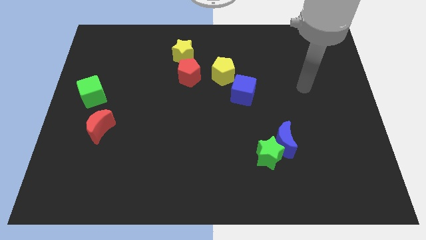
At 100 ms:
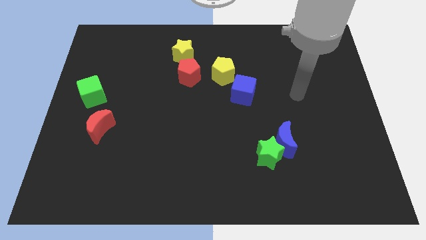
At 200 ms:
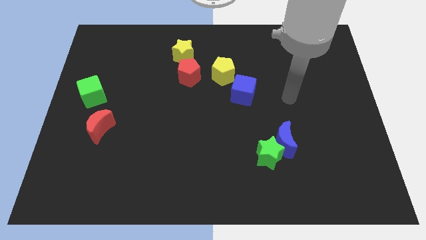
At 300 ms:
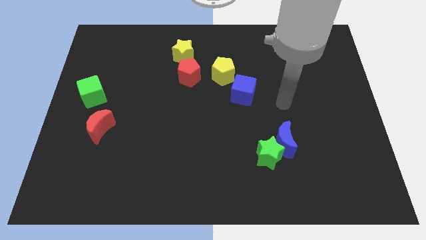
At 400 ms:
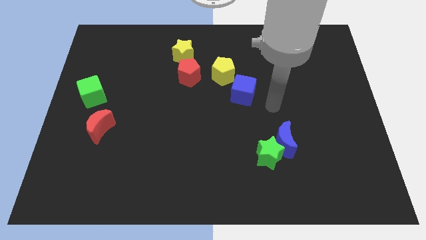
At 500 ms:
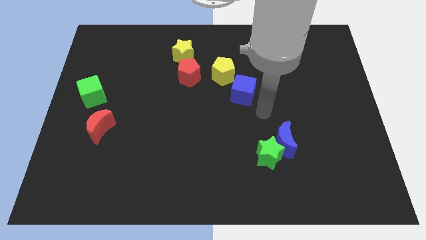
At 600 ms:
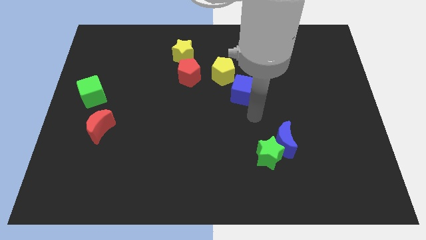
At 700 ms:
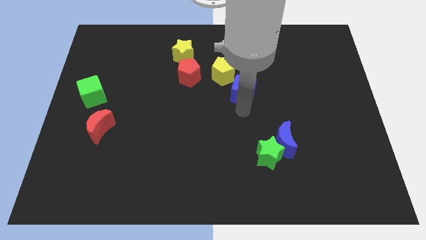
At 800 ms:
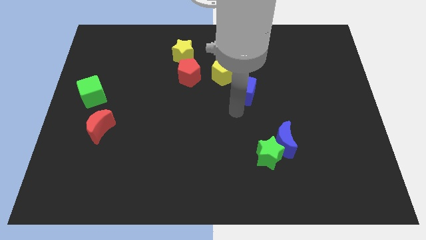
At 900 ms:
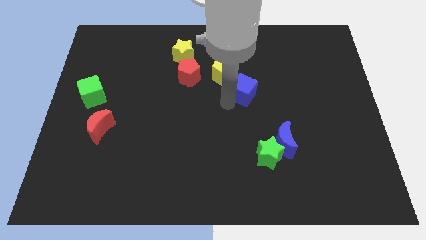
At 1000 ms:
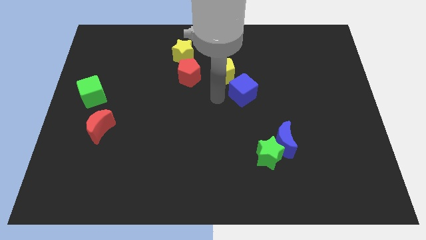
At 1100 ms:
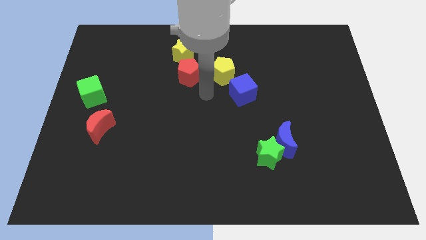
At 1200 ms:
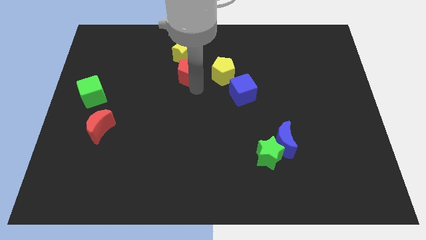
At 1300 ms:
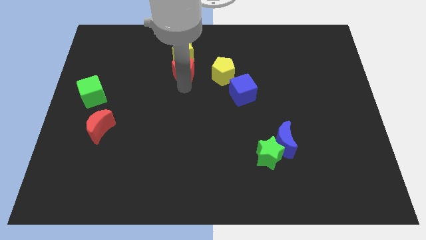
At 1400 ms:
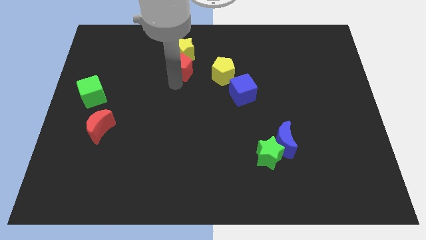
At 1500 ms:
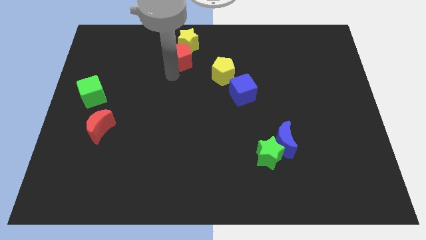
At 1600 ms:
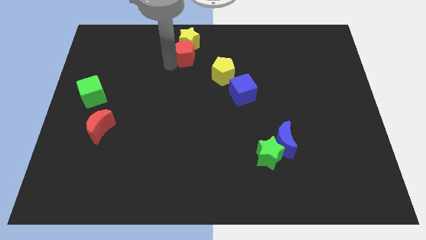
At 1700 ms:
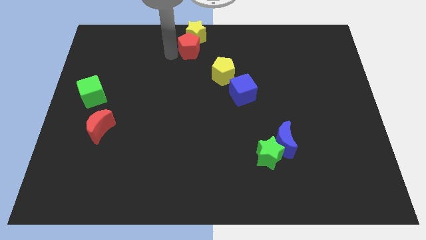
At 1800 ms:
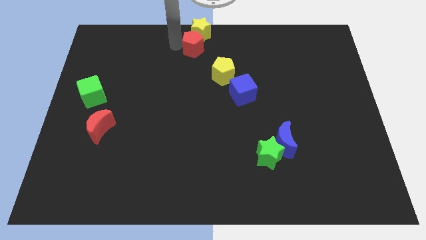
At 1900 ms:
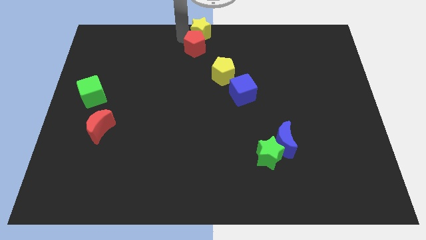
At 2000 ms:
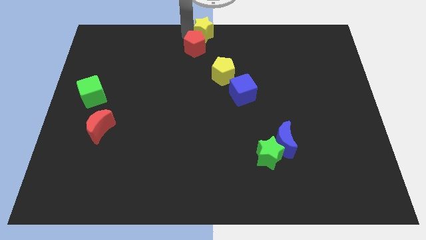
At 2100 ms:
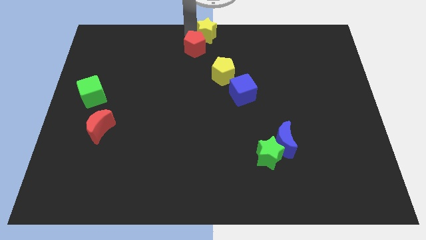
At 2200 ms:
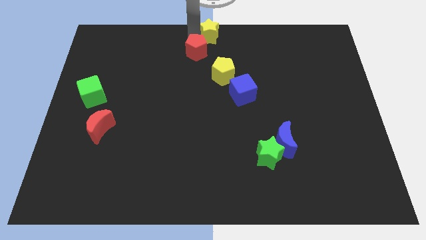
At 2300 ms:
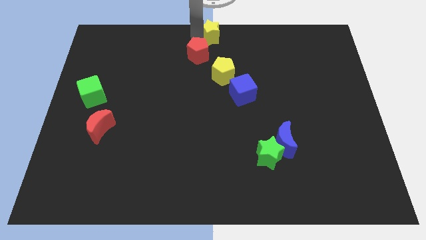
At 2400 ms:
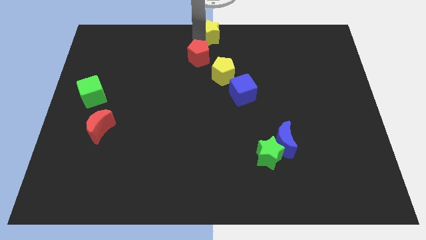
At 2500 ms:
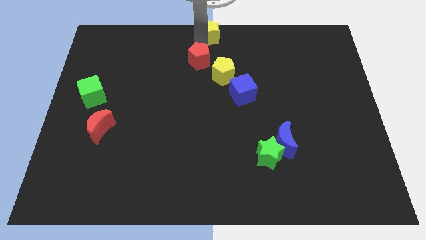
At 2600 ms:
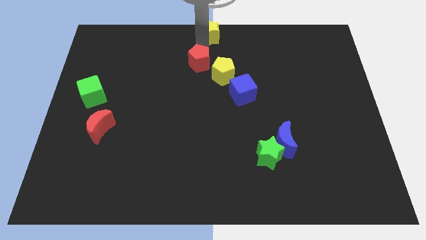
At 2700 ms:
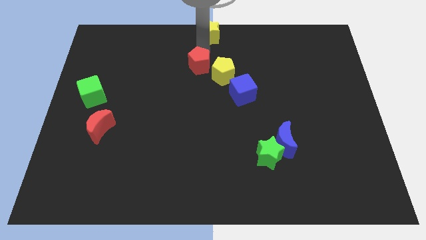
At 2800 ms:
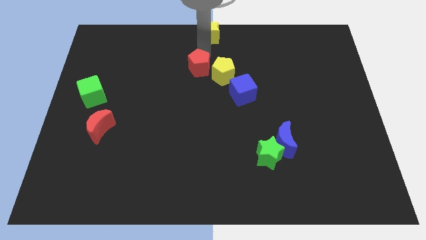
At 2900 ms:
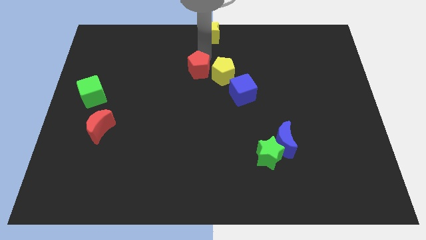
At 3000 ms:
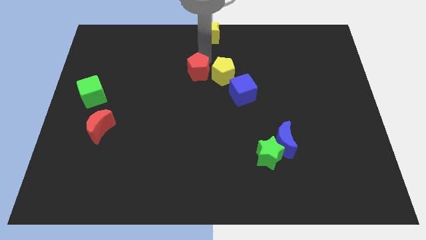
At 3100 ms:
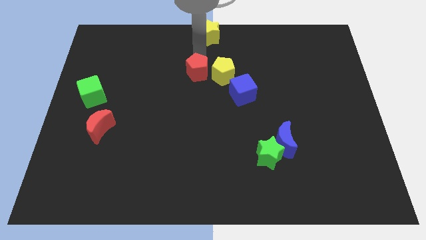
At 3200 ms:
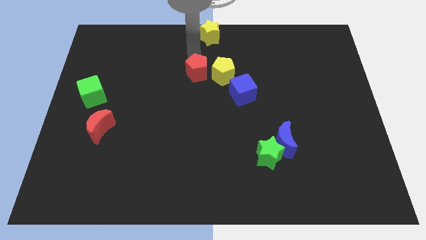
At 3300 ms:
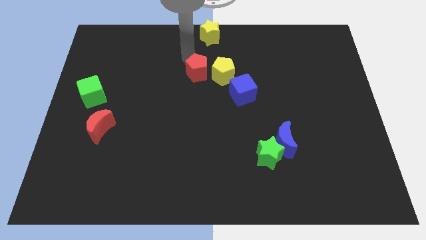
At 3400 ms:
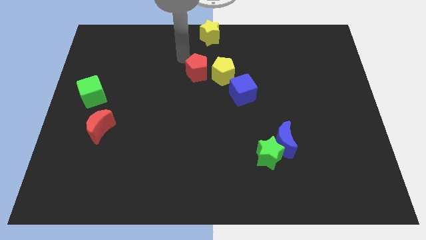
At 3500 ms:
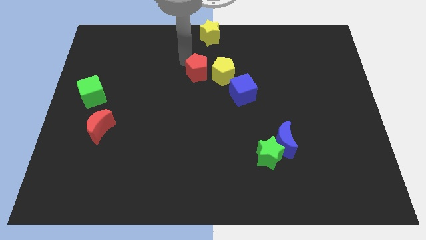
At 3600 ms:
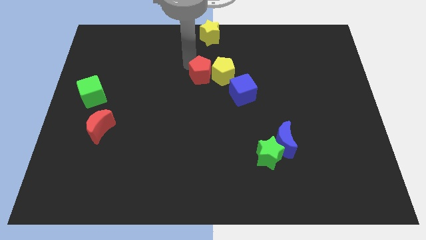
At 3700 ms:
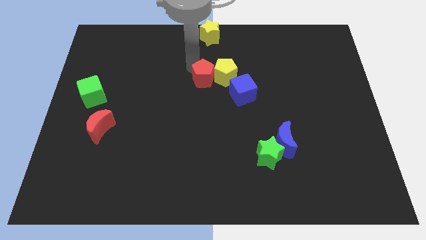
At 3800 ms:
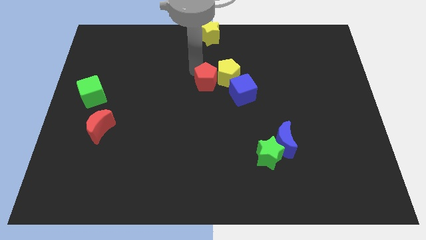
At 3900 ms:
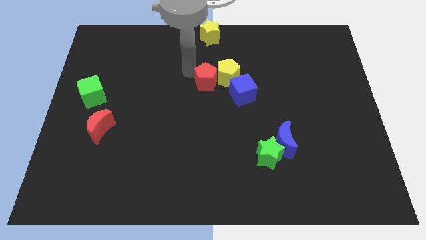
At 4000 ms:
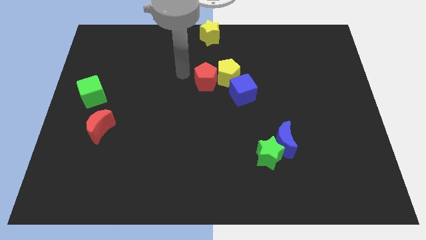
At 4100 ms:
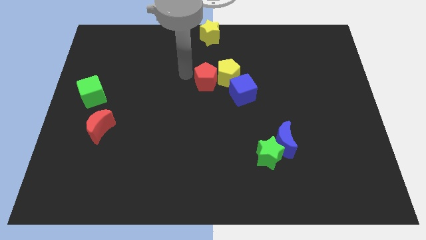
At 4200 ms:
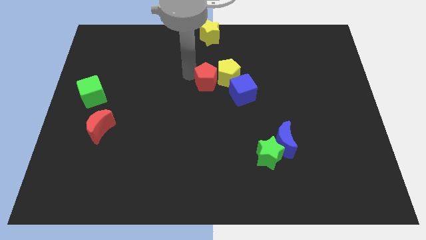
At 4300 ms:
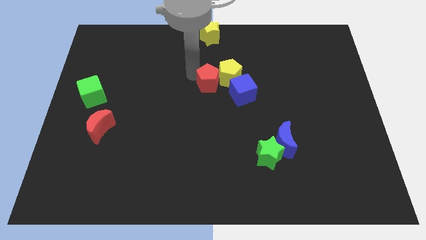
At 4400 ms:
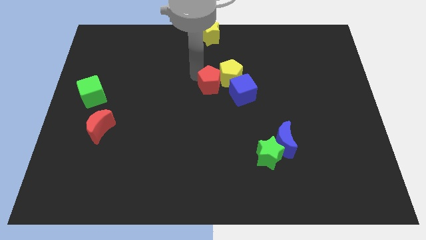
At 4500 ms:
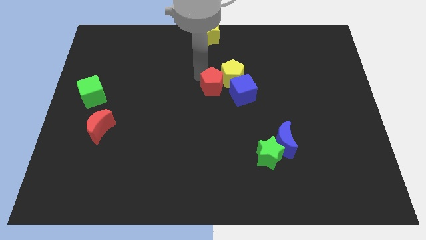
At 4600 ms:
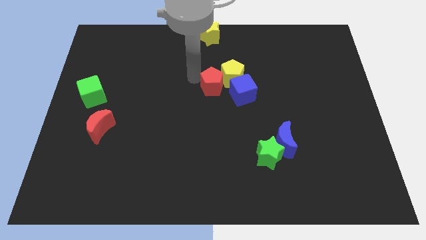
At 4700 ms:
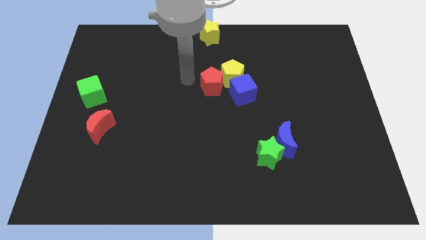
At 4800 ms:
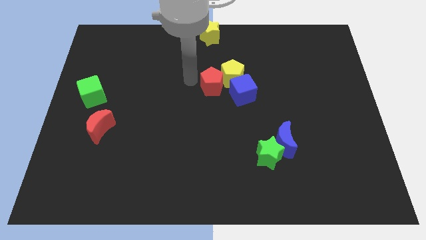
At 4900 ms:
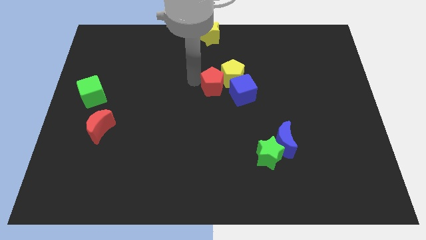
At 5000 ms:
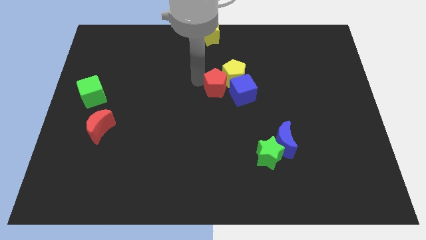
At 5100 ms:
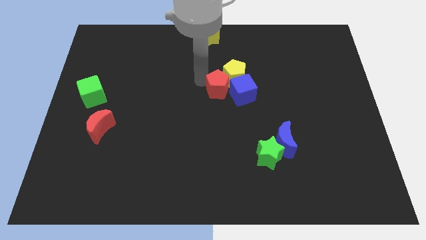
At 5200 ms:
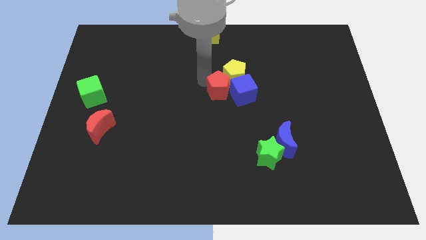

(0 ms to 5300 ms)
put the red pentagon close to the blue cube

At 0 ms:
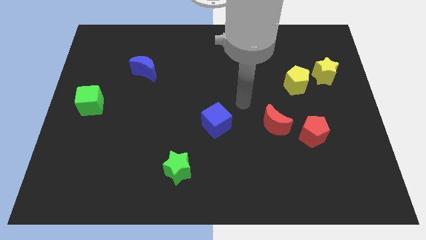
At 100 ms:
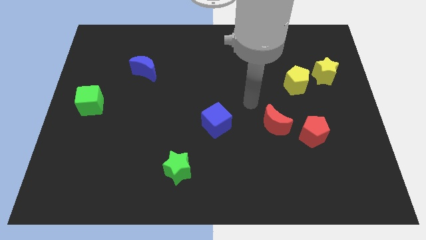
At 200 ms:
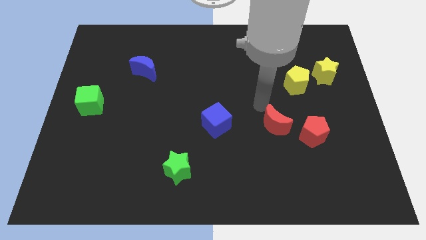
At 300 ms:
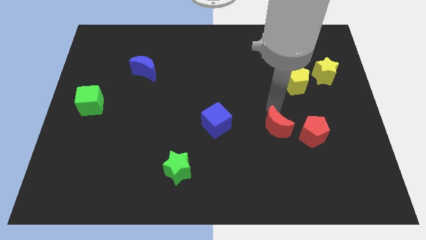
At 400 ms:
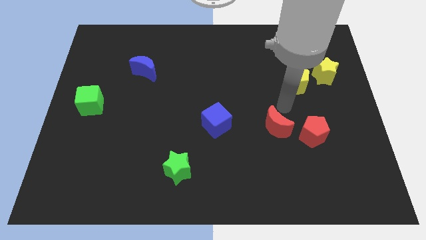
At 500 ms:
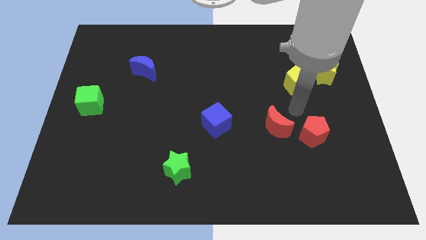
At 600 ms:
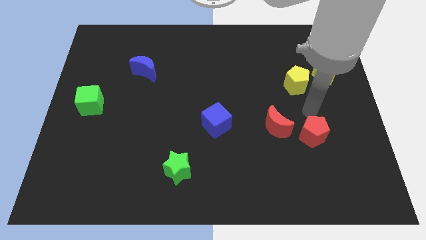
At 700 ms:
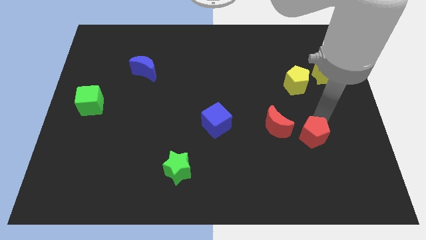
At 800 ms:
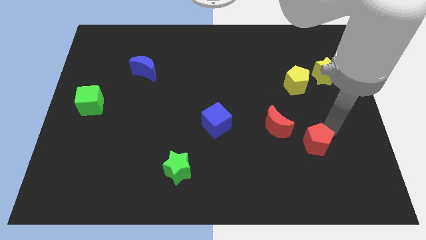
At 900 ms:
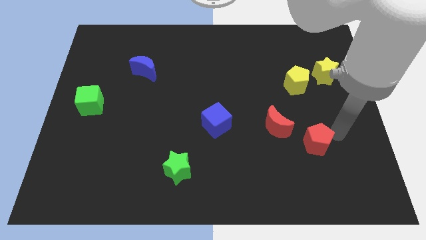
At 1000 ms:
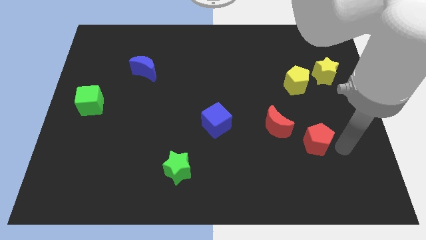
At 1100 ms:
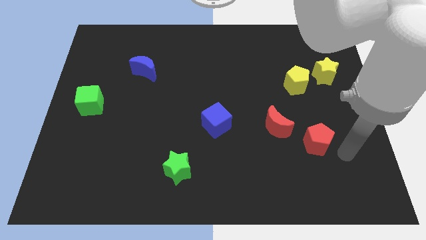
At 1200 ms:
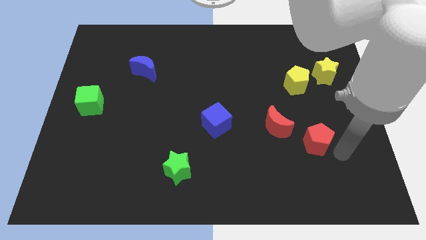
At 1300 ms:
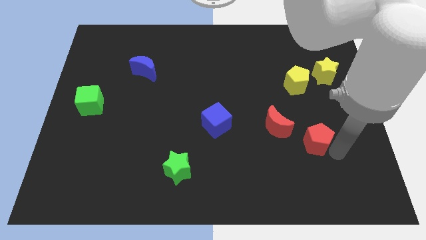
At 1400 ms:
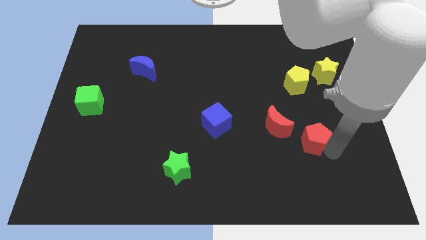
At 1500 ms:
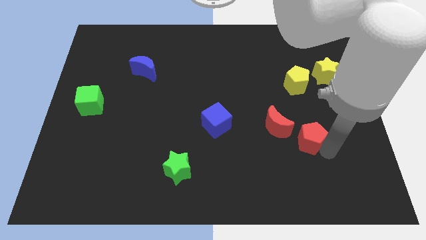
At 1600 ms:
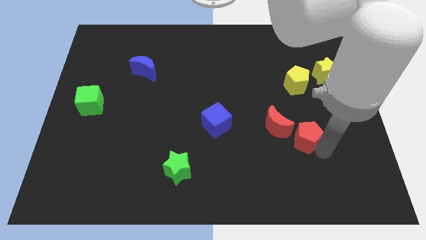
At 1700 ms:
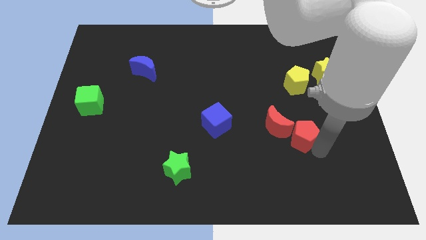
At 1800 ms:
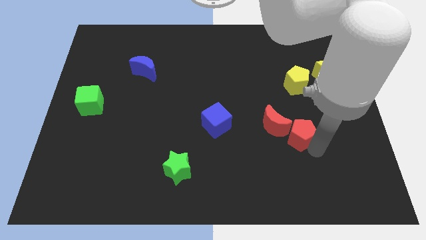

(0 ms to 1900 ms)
slide the red pentagon to the red moon
